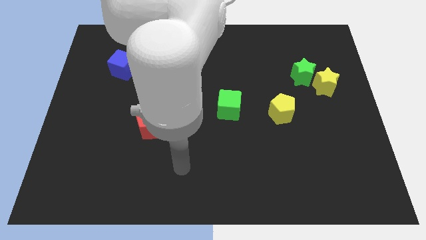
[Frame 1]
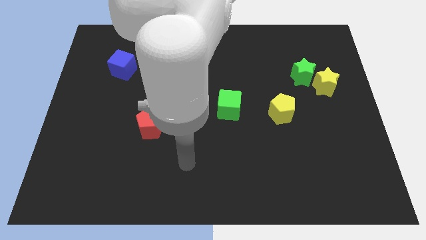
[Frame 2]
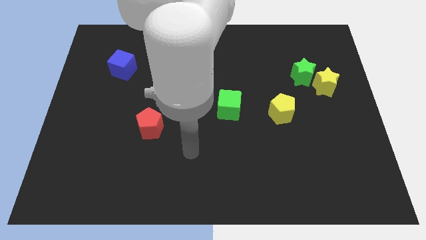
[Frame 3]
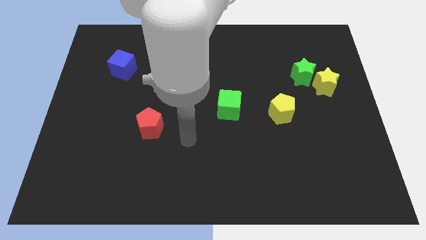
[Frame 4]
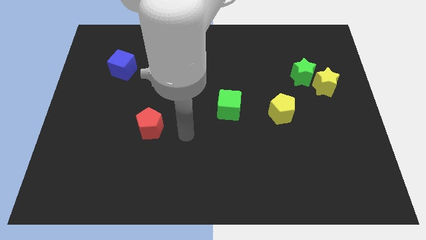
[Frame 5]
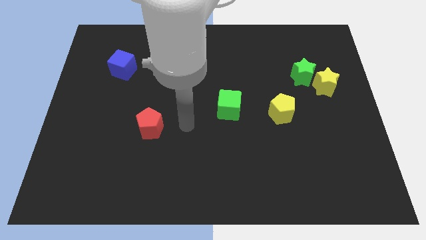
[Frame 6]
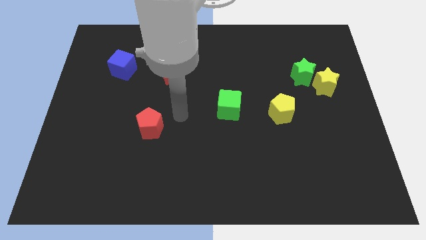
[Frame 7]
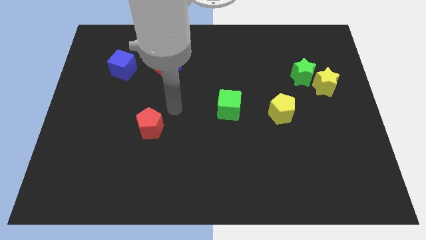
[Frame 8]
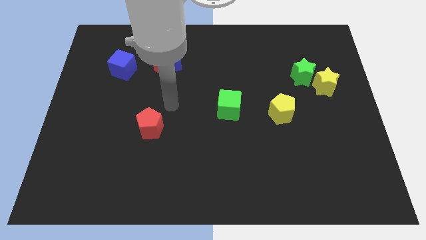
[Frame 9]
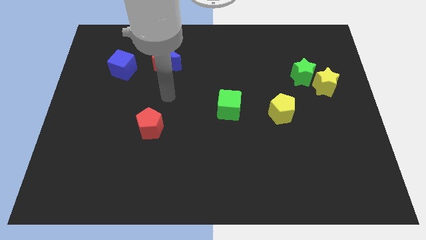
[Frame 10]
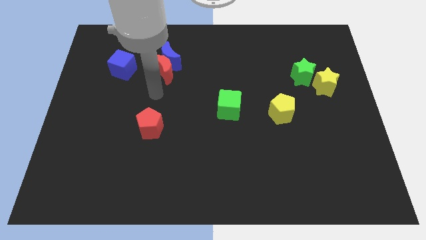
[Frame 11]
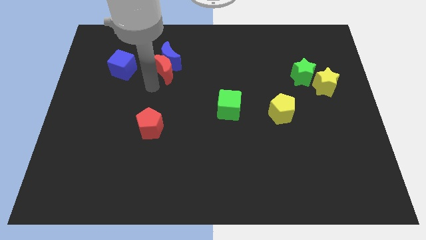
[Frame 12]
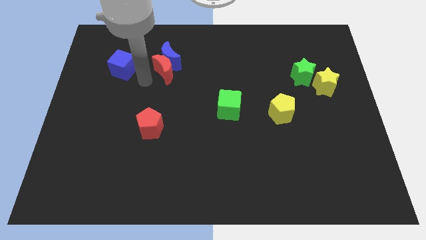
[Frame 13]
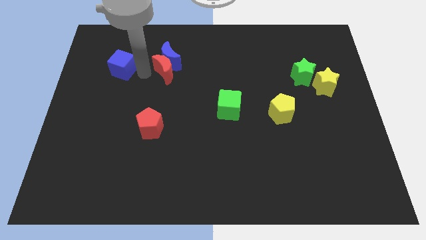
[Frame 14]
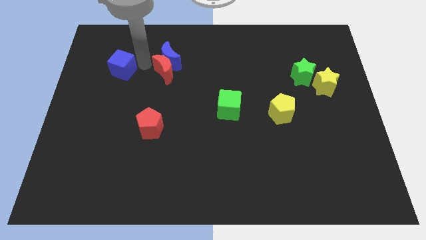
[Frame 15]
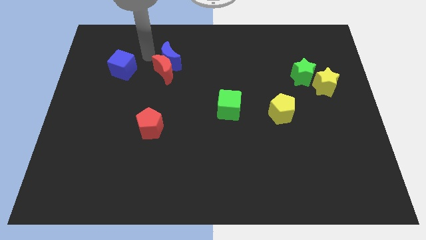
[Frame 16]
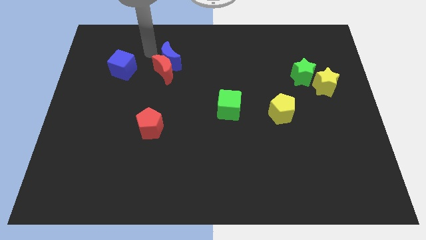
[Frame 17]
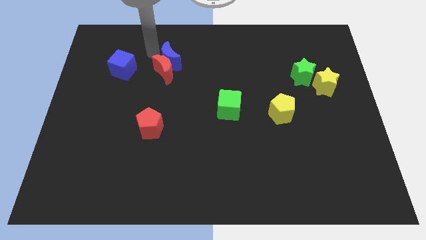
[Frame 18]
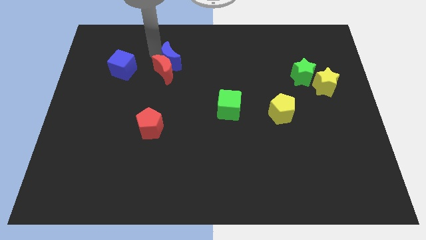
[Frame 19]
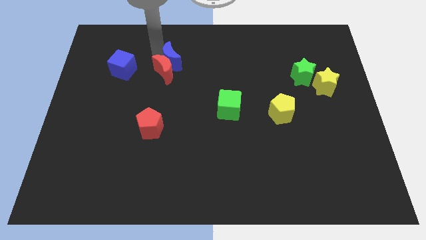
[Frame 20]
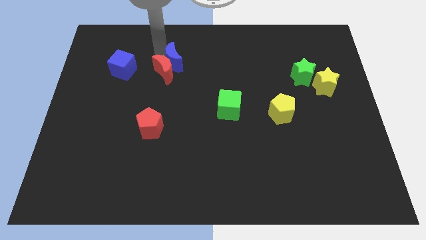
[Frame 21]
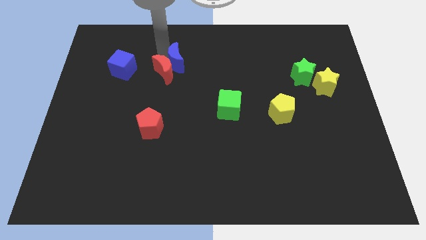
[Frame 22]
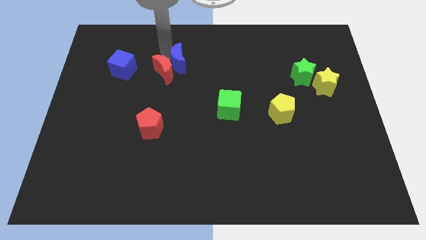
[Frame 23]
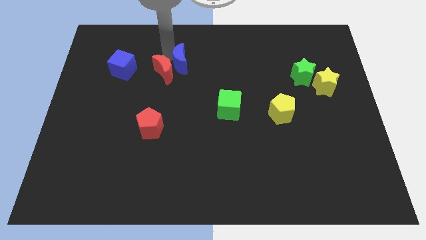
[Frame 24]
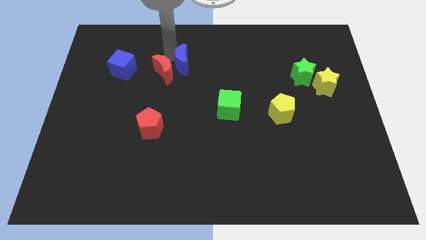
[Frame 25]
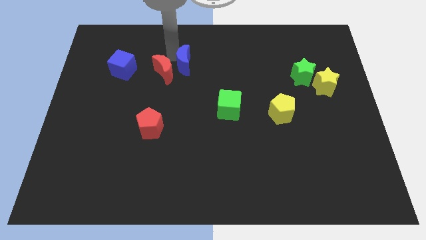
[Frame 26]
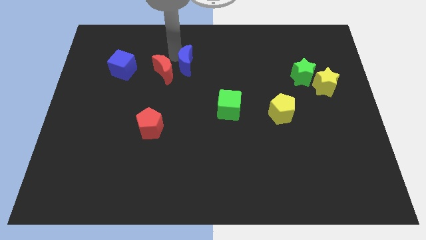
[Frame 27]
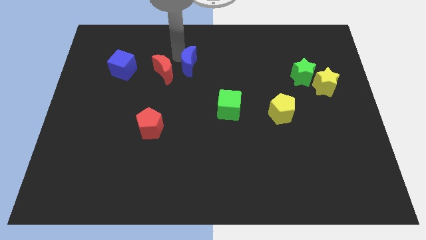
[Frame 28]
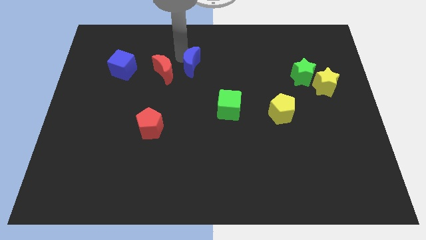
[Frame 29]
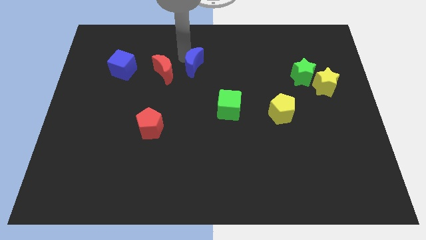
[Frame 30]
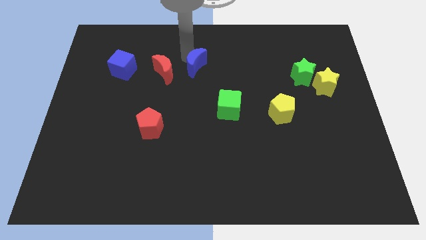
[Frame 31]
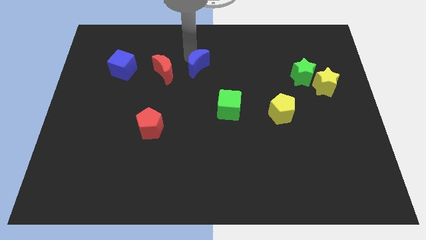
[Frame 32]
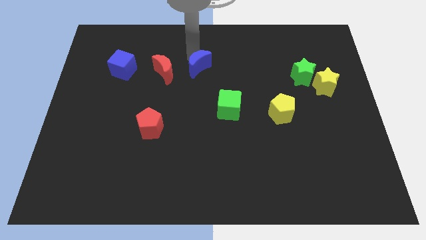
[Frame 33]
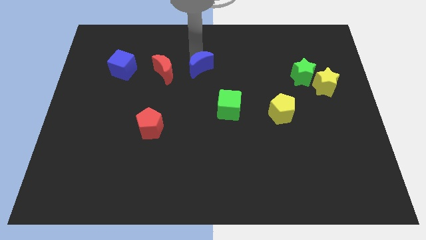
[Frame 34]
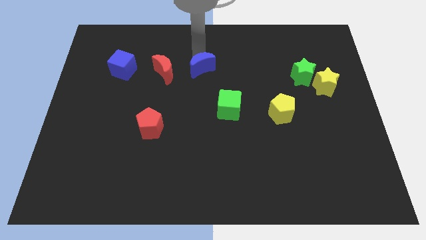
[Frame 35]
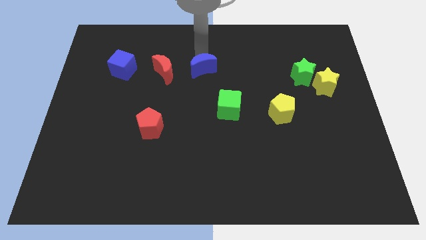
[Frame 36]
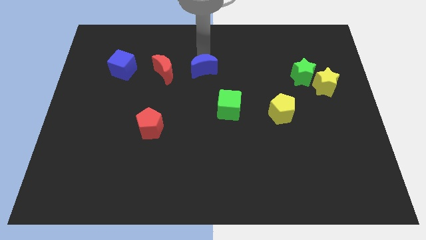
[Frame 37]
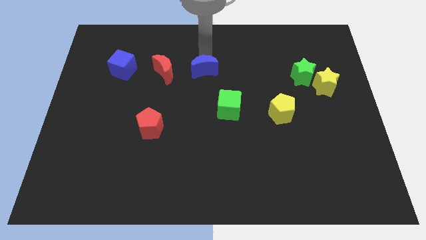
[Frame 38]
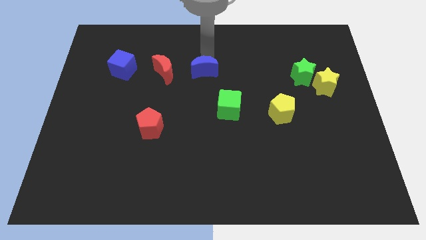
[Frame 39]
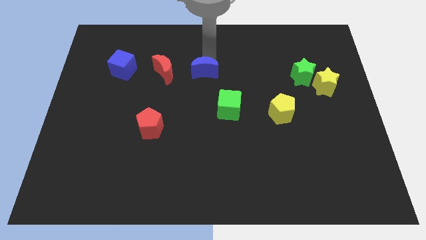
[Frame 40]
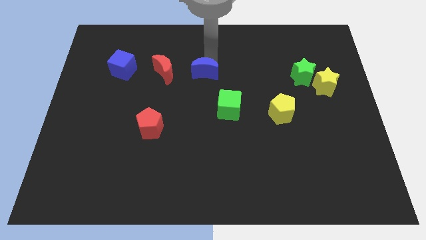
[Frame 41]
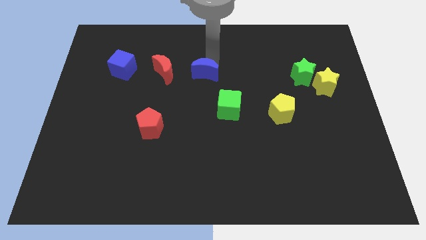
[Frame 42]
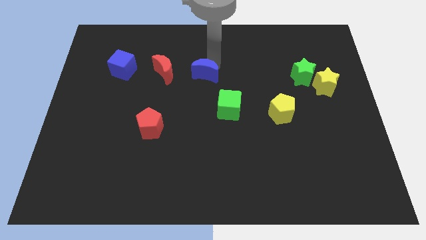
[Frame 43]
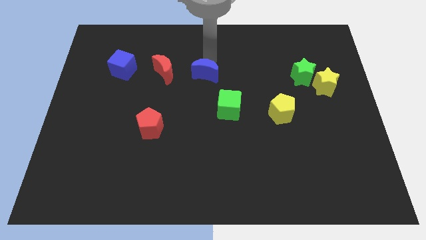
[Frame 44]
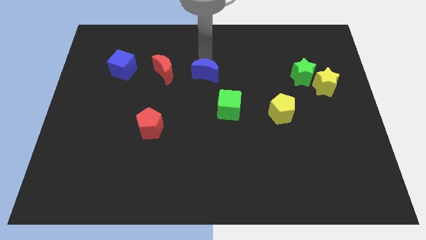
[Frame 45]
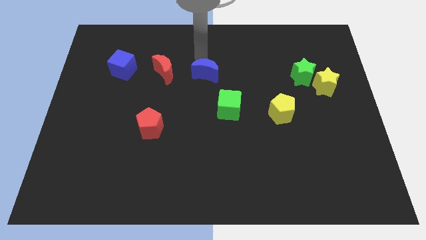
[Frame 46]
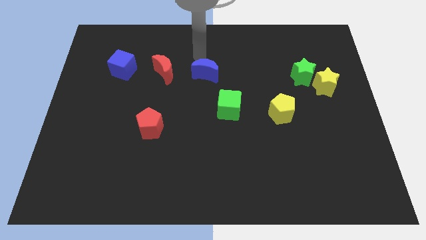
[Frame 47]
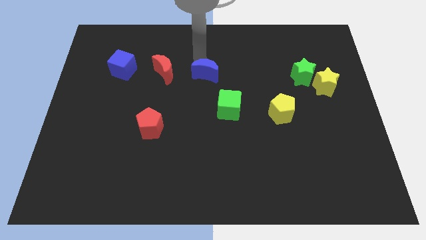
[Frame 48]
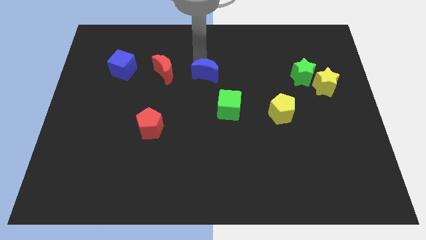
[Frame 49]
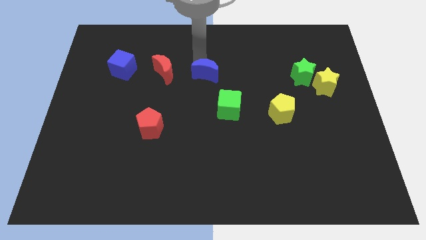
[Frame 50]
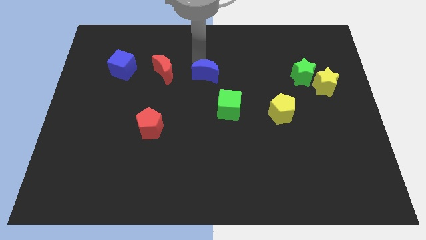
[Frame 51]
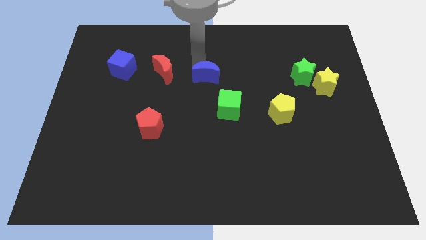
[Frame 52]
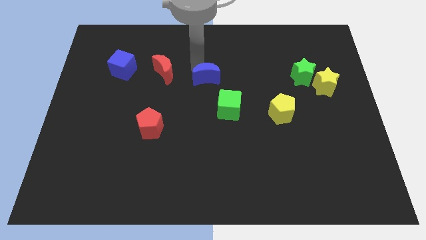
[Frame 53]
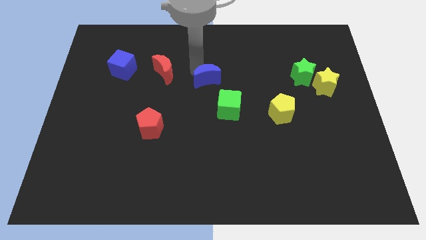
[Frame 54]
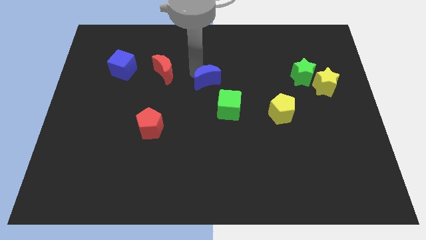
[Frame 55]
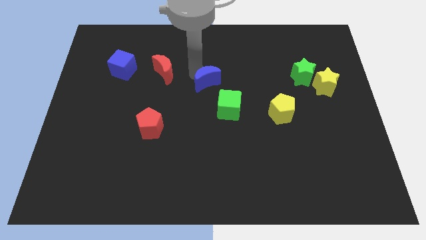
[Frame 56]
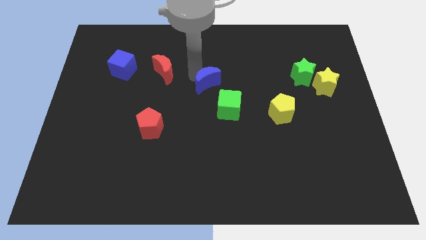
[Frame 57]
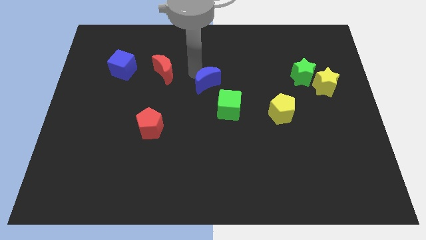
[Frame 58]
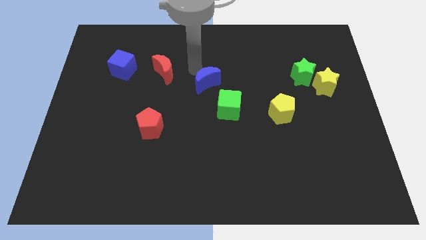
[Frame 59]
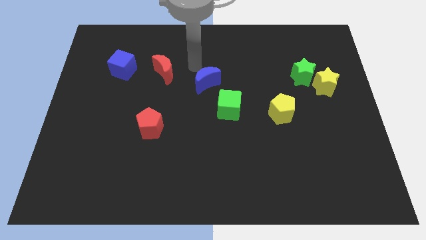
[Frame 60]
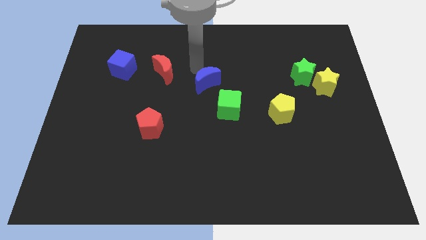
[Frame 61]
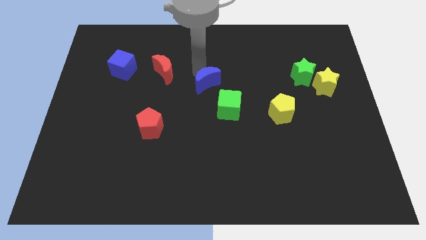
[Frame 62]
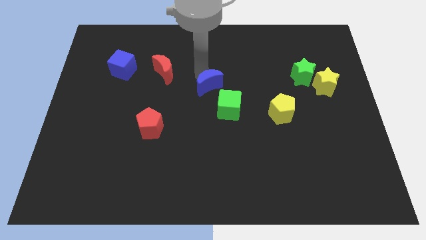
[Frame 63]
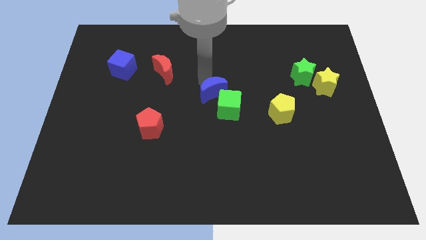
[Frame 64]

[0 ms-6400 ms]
slide the blue moon close to the green cube

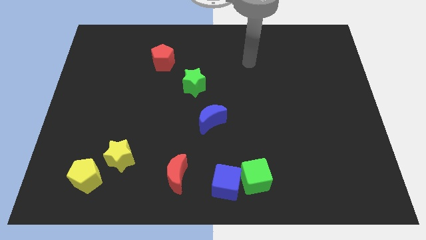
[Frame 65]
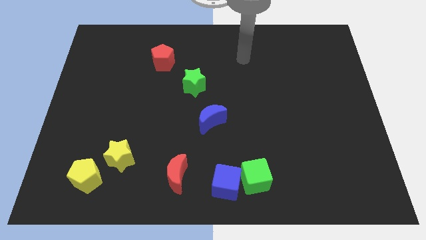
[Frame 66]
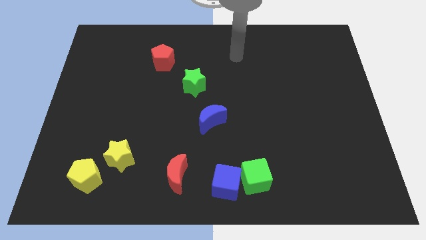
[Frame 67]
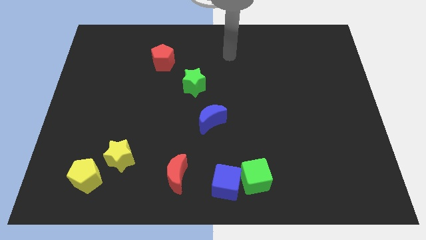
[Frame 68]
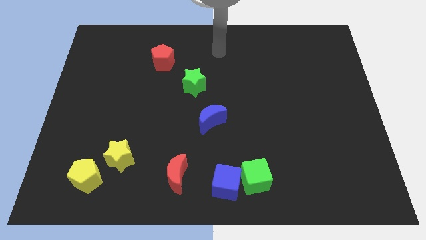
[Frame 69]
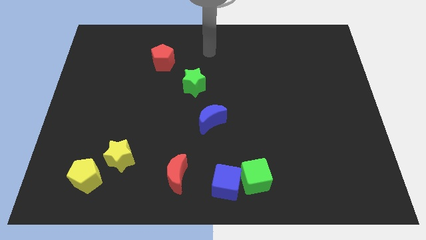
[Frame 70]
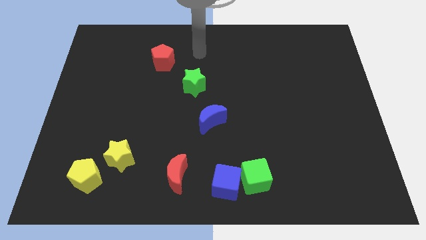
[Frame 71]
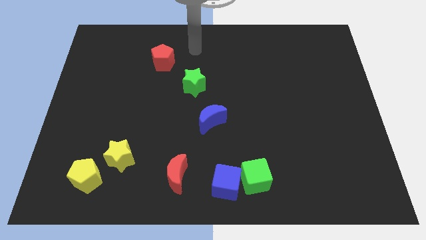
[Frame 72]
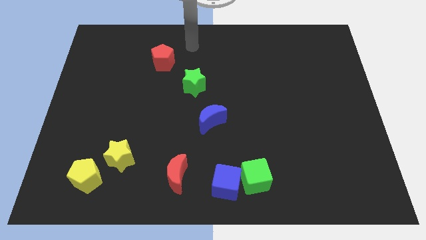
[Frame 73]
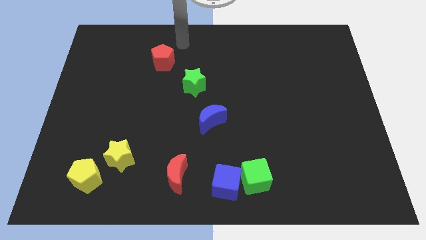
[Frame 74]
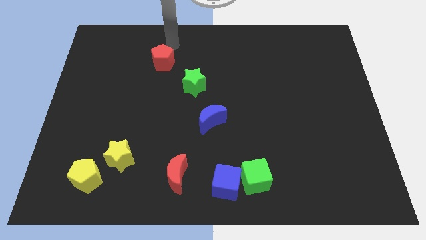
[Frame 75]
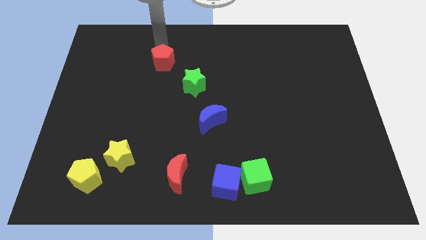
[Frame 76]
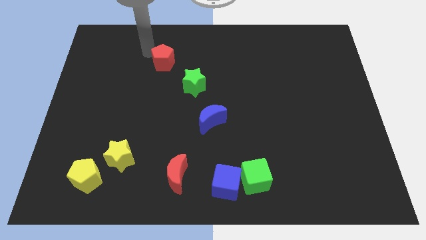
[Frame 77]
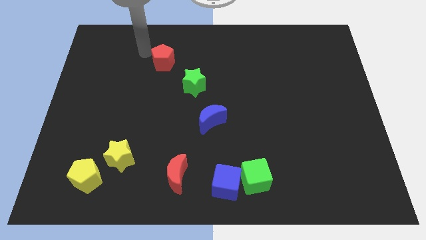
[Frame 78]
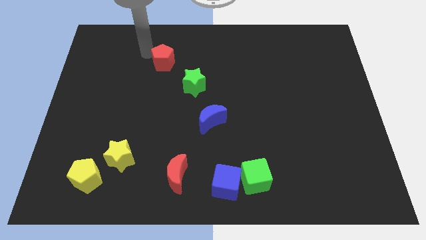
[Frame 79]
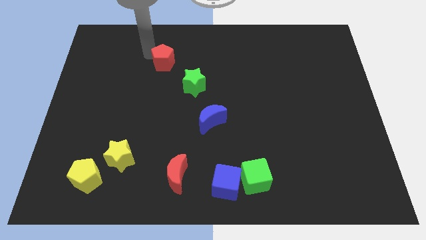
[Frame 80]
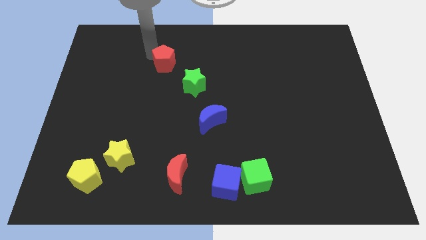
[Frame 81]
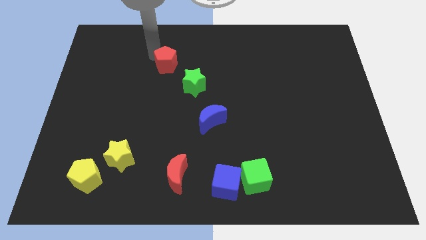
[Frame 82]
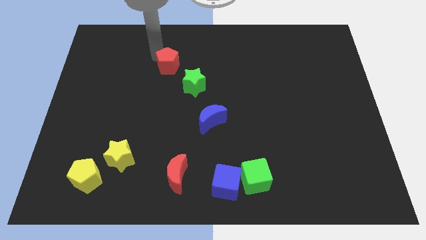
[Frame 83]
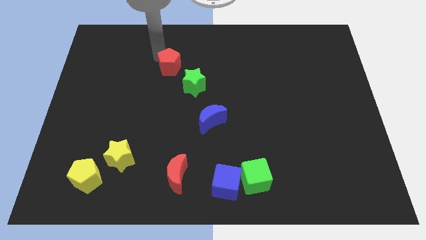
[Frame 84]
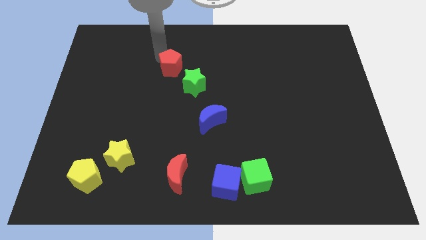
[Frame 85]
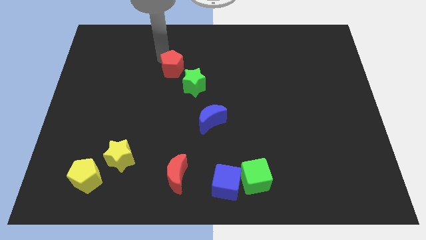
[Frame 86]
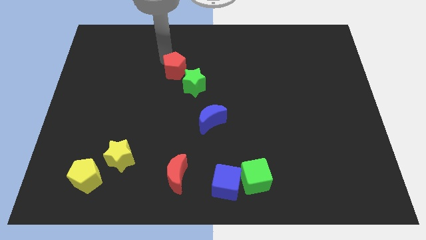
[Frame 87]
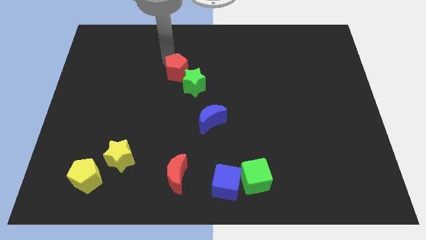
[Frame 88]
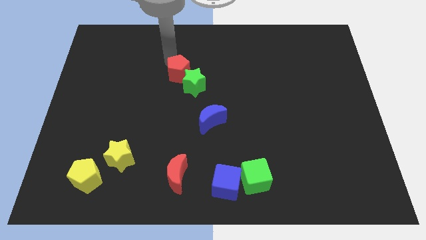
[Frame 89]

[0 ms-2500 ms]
put the red pentagon to the green star
